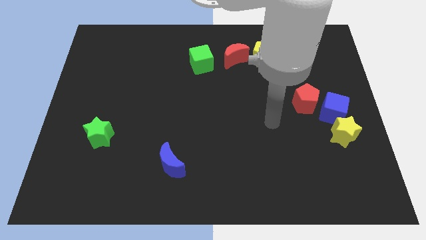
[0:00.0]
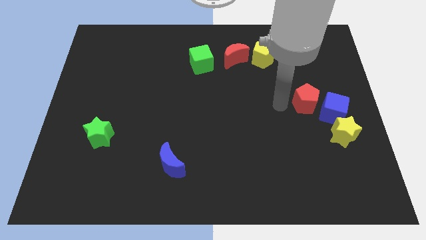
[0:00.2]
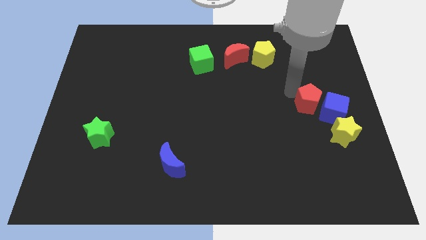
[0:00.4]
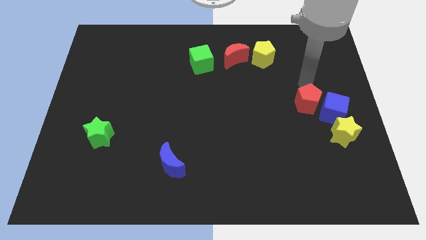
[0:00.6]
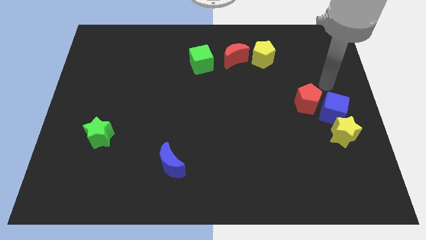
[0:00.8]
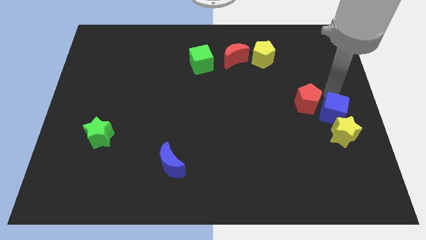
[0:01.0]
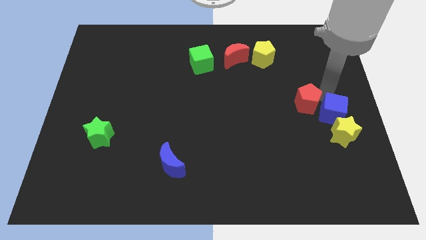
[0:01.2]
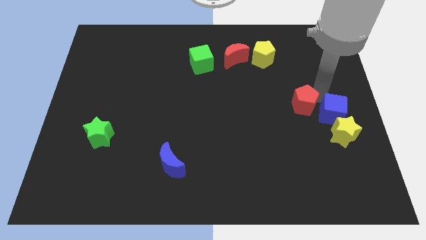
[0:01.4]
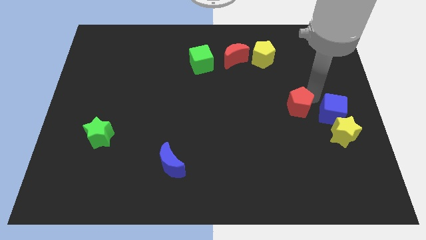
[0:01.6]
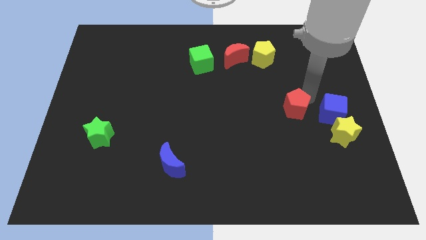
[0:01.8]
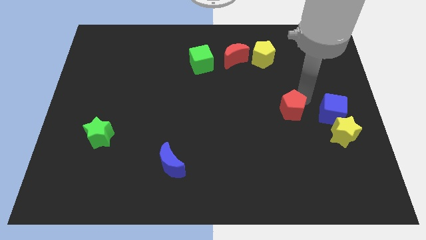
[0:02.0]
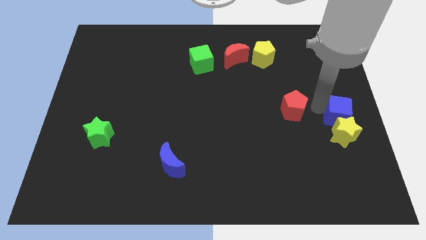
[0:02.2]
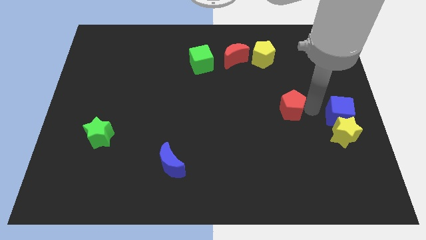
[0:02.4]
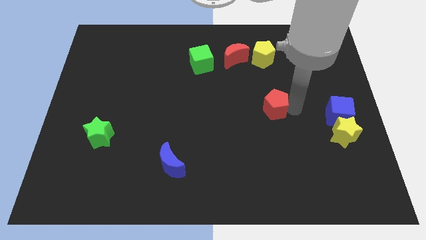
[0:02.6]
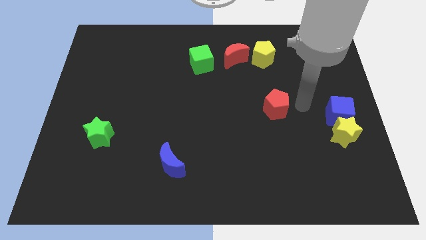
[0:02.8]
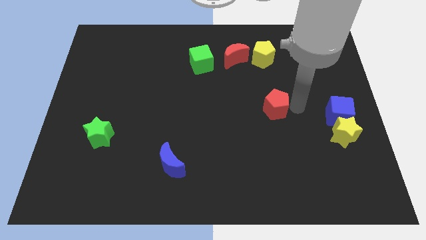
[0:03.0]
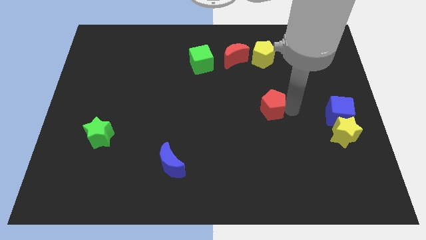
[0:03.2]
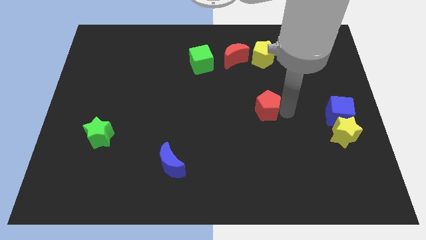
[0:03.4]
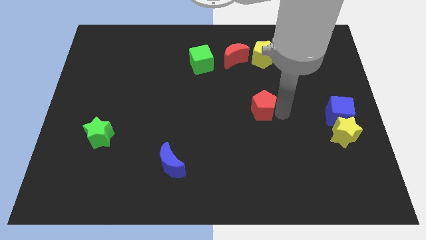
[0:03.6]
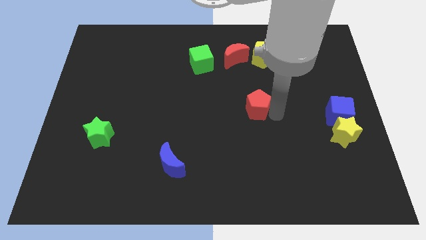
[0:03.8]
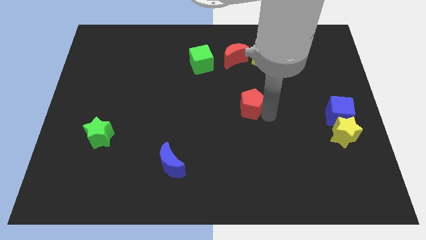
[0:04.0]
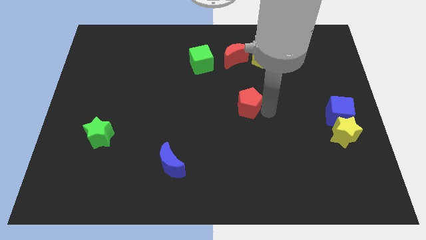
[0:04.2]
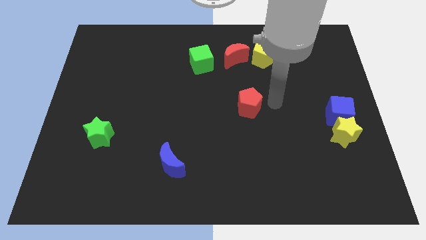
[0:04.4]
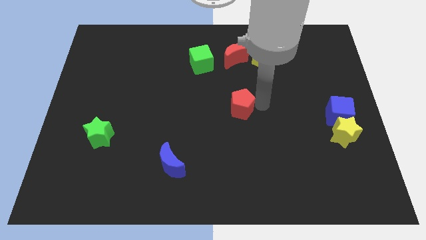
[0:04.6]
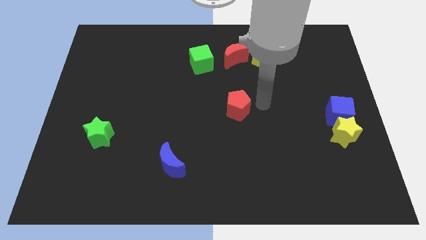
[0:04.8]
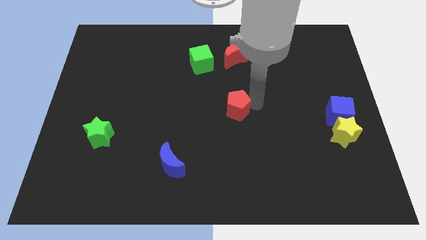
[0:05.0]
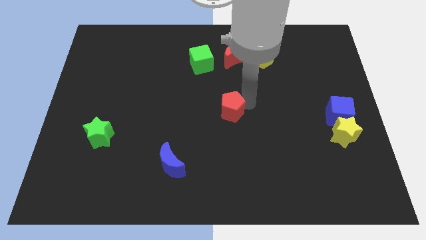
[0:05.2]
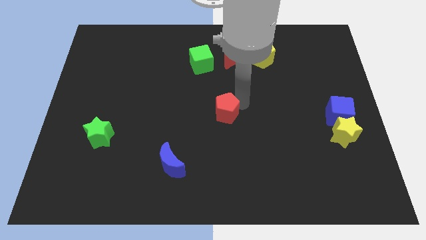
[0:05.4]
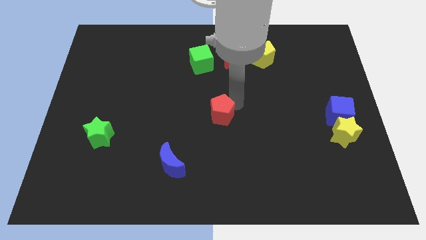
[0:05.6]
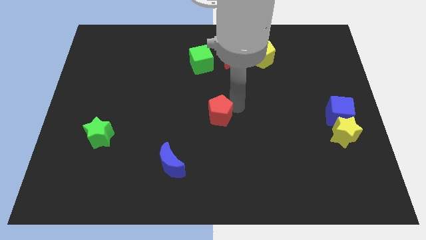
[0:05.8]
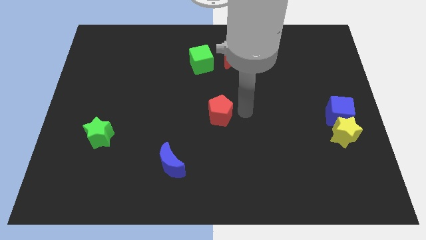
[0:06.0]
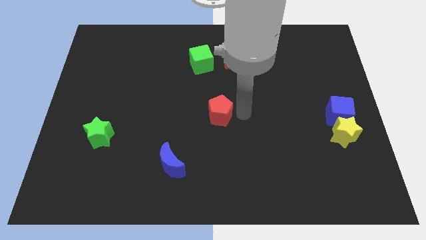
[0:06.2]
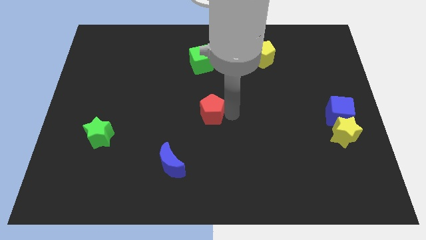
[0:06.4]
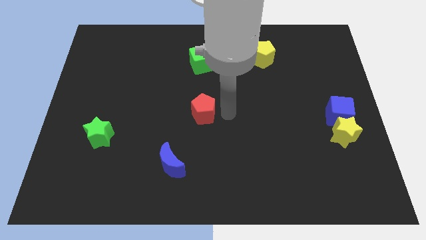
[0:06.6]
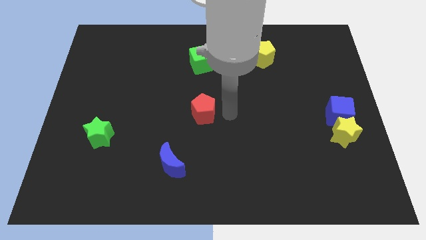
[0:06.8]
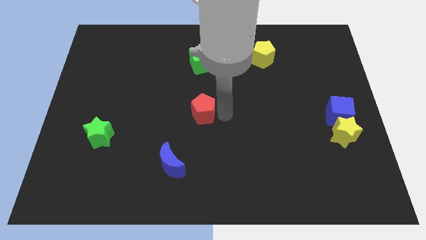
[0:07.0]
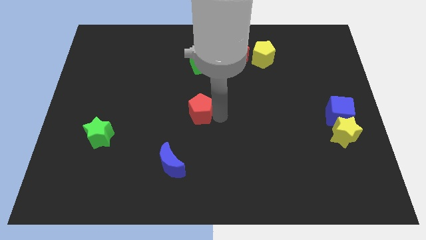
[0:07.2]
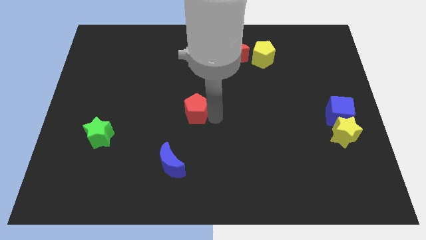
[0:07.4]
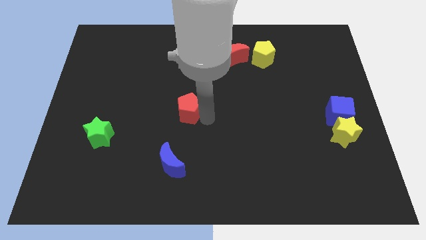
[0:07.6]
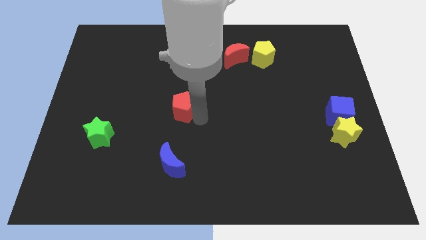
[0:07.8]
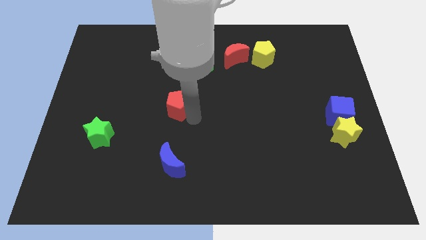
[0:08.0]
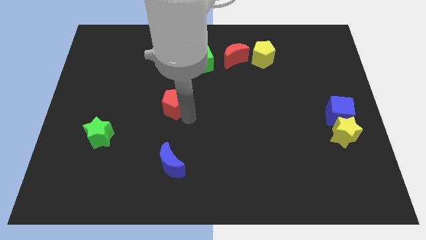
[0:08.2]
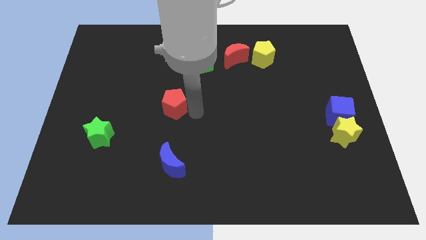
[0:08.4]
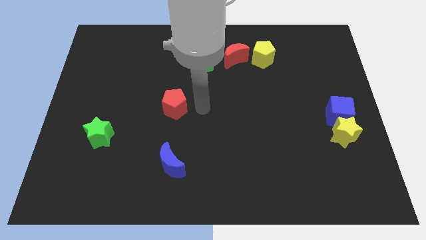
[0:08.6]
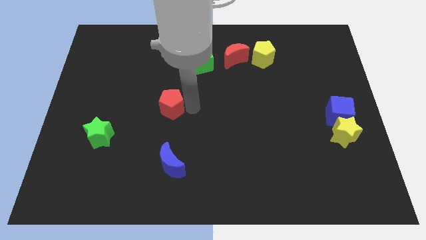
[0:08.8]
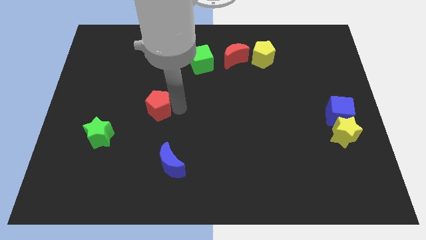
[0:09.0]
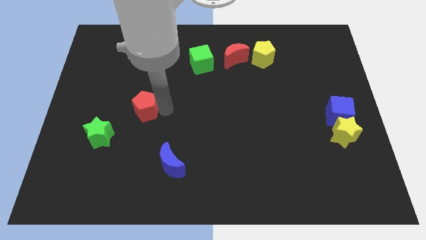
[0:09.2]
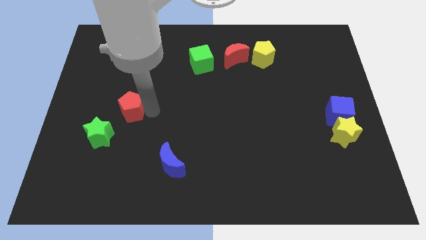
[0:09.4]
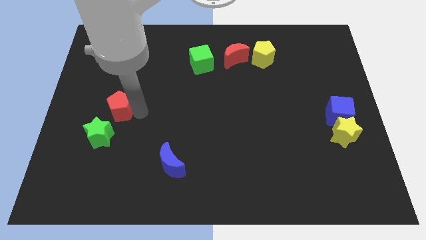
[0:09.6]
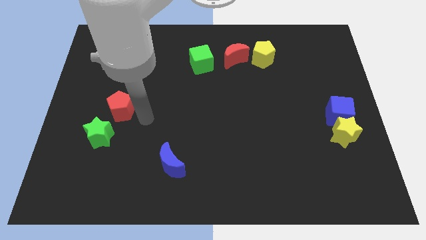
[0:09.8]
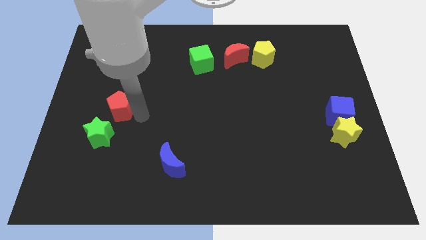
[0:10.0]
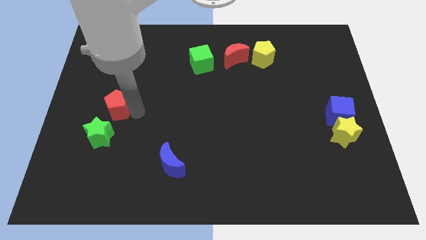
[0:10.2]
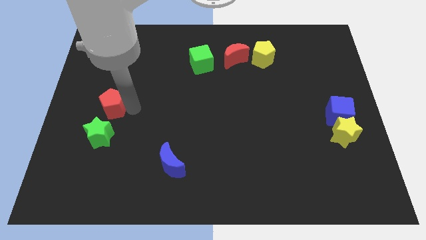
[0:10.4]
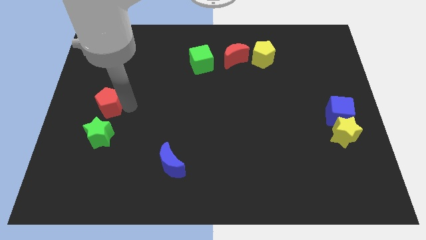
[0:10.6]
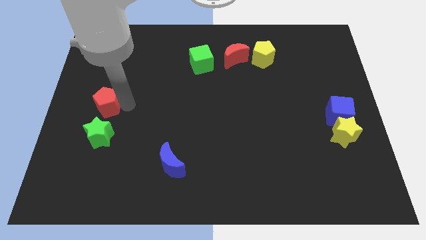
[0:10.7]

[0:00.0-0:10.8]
slide the red pentagon to the center left

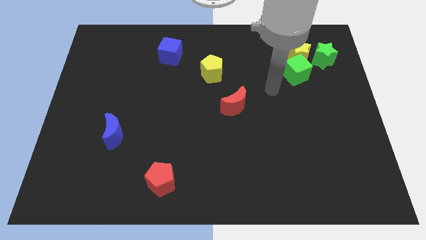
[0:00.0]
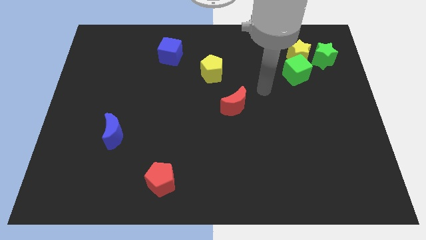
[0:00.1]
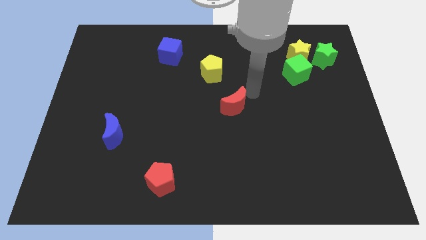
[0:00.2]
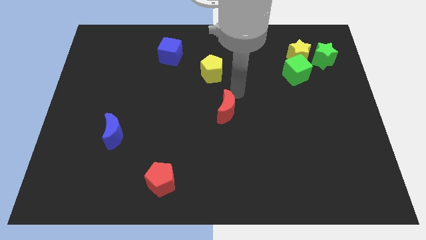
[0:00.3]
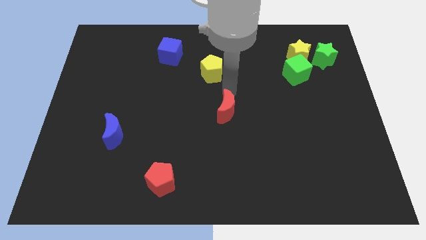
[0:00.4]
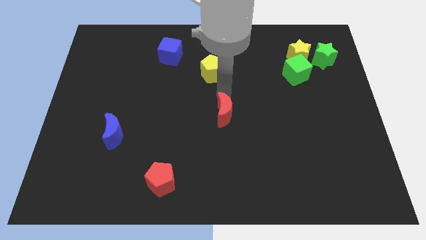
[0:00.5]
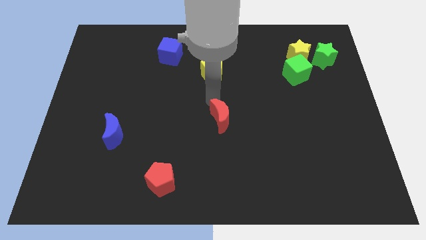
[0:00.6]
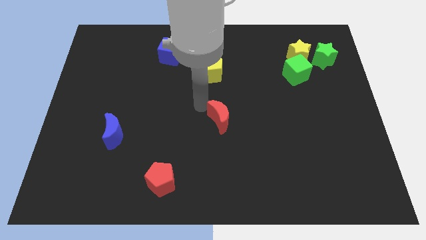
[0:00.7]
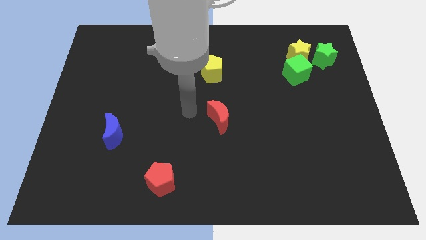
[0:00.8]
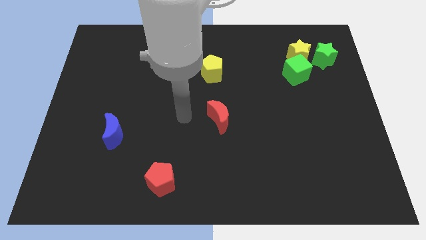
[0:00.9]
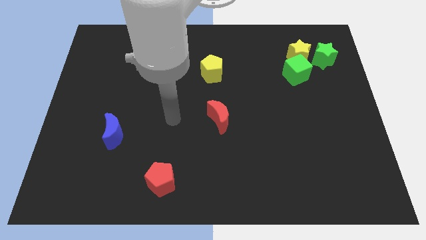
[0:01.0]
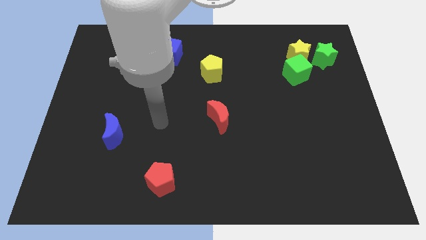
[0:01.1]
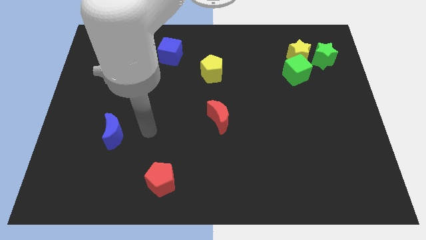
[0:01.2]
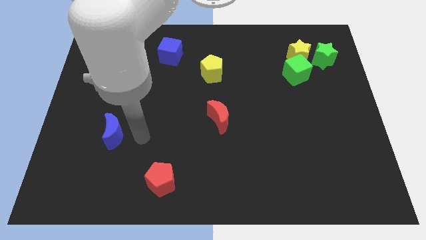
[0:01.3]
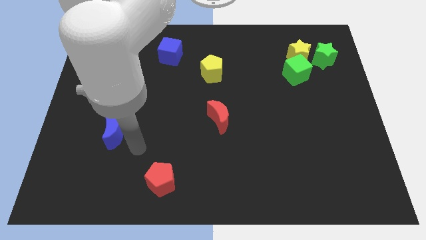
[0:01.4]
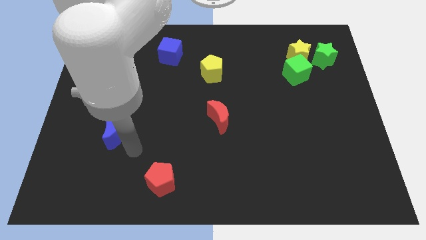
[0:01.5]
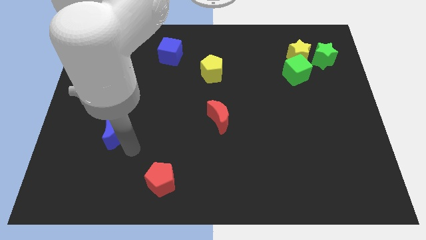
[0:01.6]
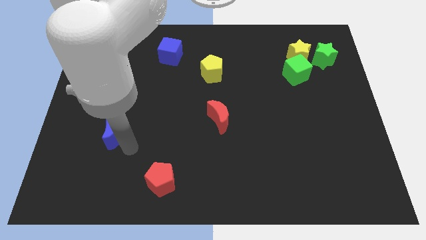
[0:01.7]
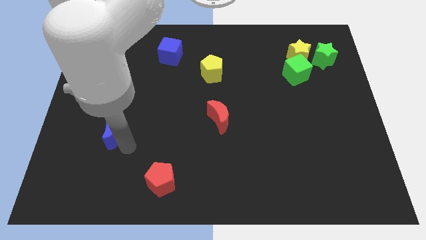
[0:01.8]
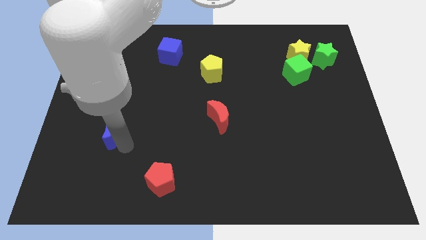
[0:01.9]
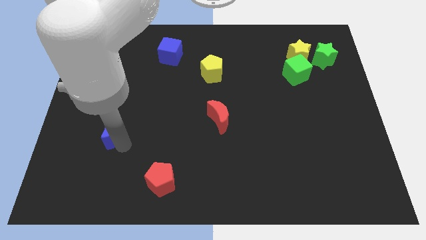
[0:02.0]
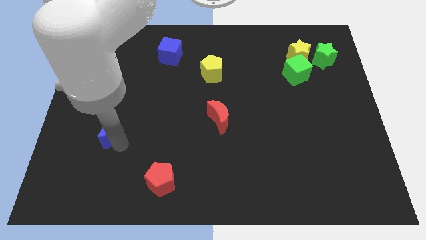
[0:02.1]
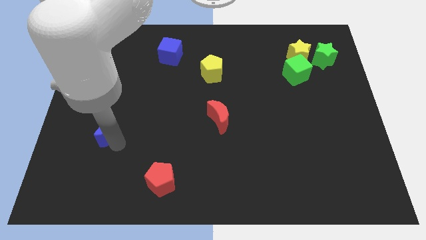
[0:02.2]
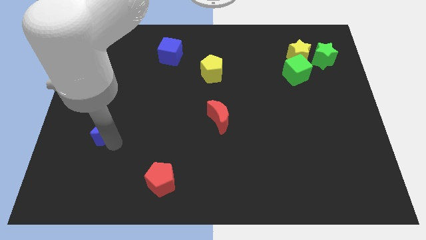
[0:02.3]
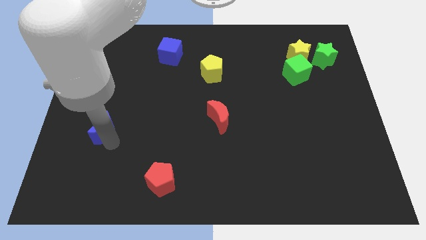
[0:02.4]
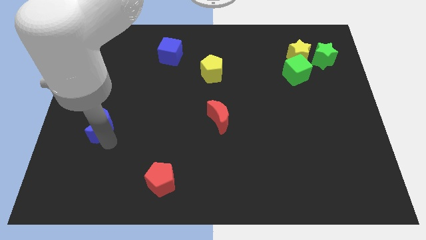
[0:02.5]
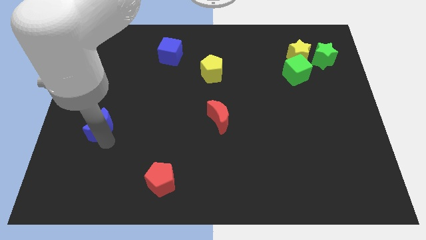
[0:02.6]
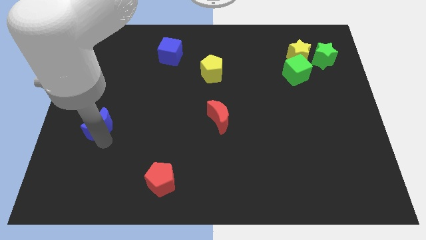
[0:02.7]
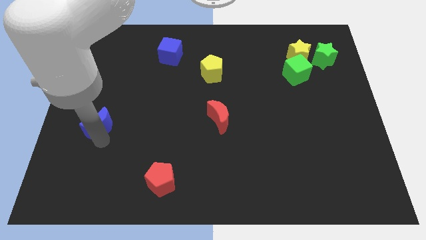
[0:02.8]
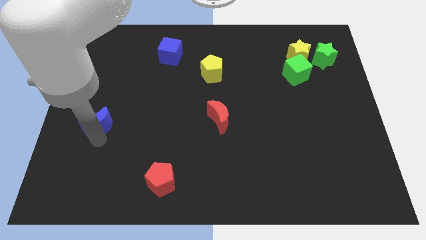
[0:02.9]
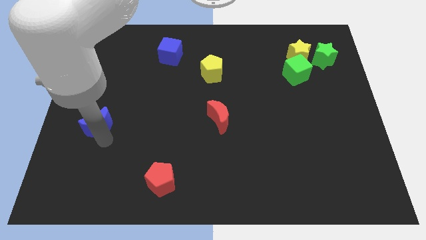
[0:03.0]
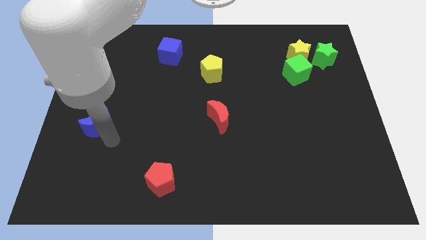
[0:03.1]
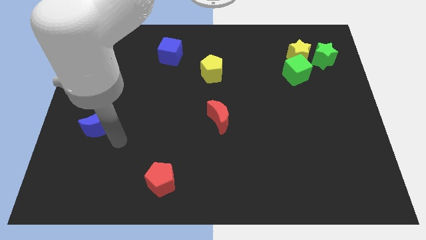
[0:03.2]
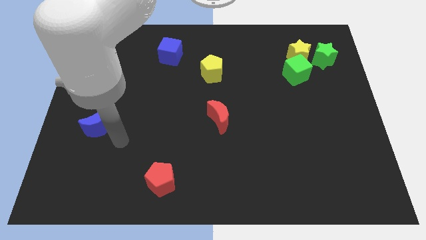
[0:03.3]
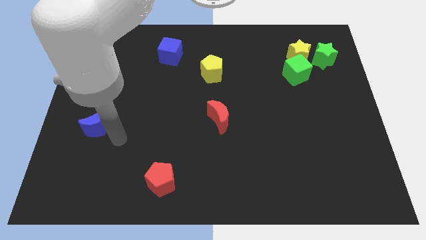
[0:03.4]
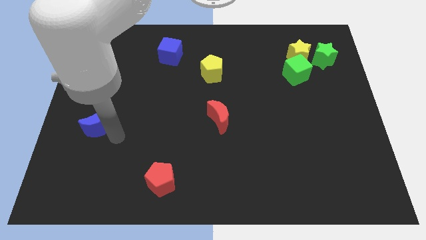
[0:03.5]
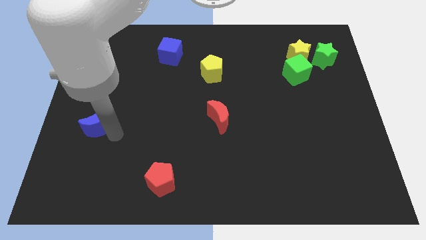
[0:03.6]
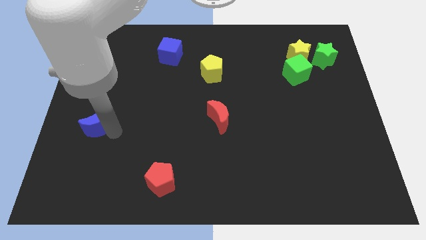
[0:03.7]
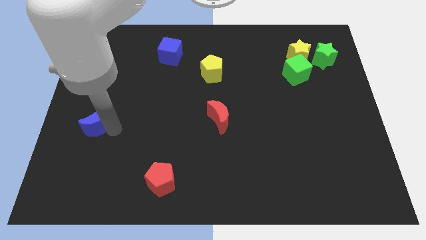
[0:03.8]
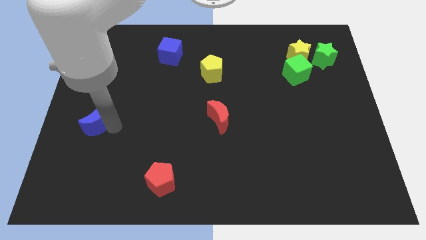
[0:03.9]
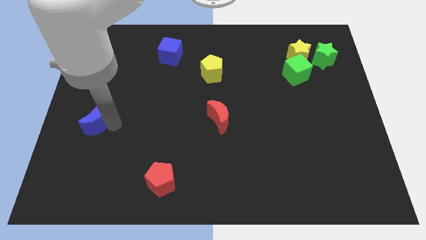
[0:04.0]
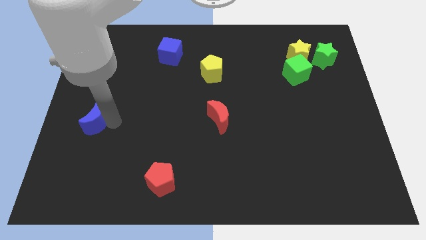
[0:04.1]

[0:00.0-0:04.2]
slide the blue moon to the center left
